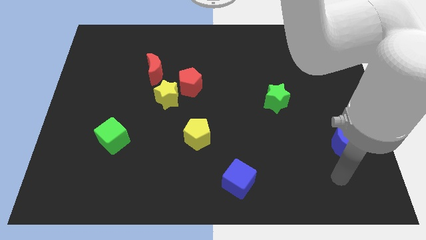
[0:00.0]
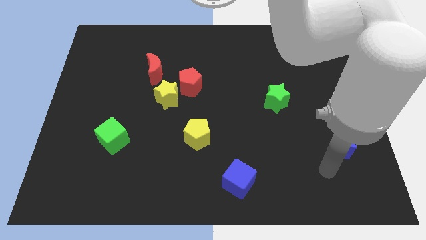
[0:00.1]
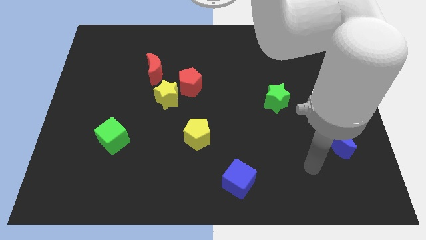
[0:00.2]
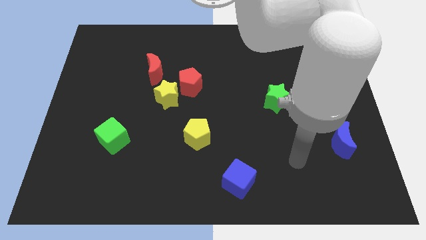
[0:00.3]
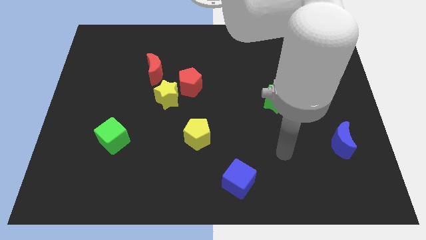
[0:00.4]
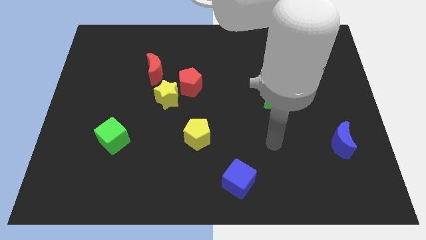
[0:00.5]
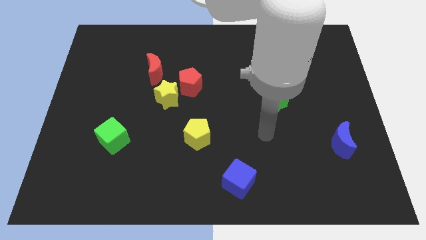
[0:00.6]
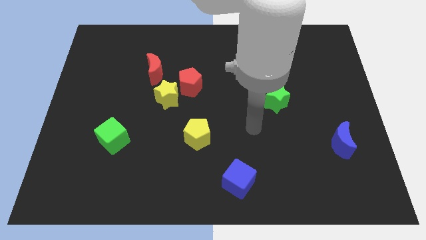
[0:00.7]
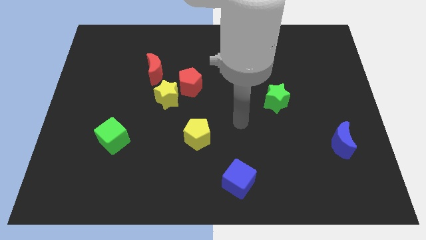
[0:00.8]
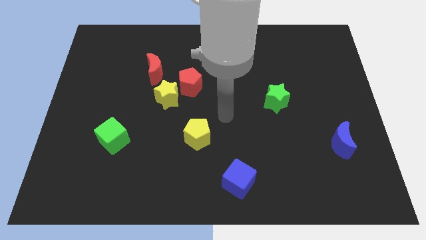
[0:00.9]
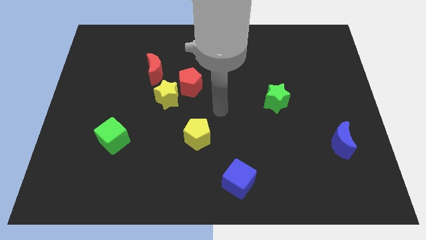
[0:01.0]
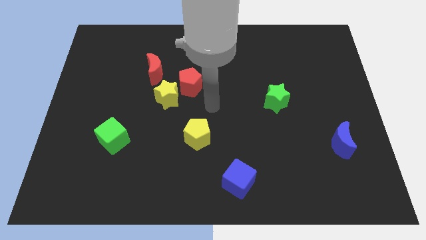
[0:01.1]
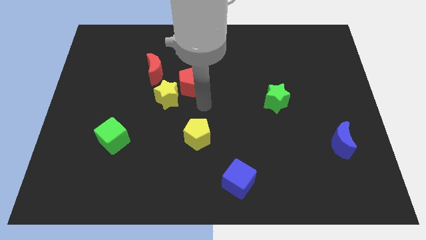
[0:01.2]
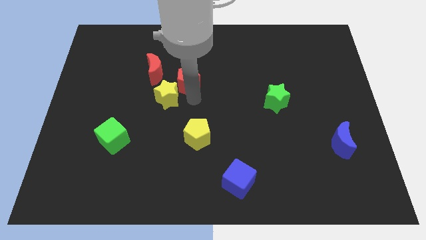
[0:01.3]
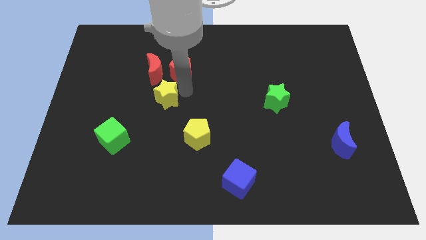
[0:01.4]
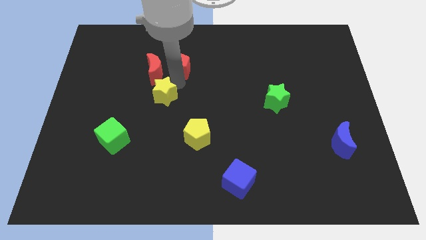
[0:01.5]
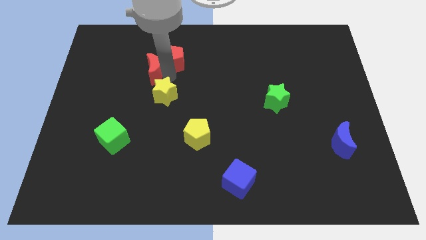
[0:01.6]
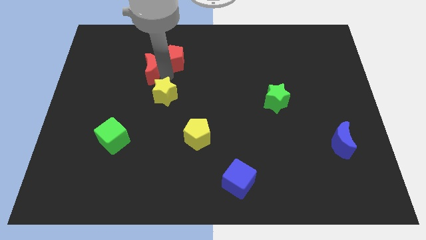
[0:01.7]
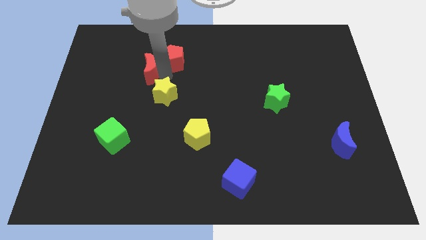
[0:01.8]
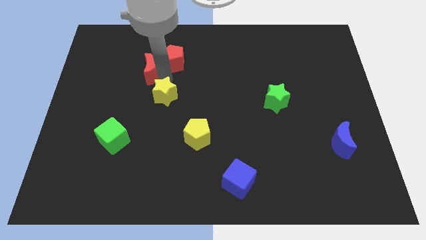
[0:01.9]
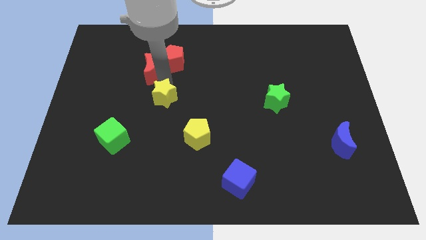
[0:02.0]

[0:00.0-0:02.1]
pull the yellow star apart from the red pentagon and red moon

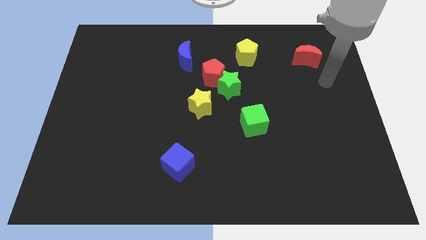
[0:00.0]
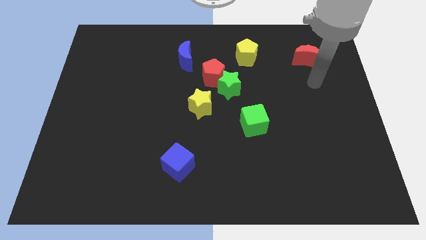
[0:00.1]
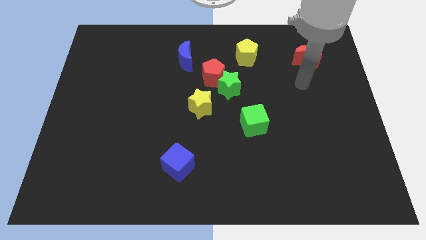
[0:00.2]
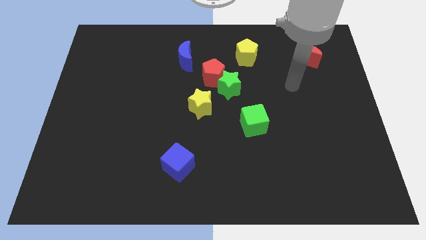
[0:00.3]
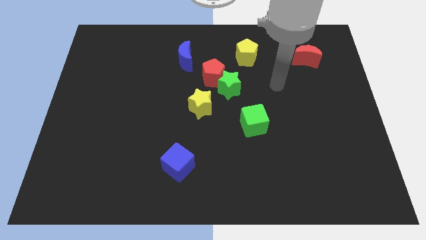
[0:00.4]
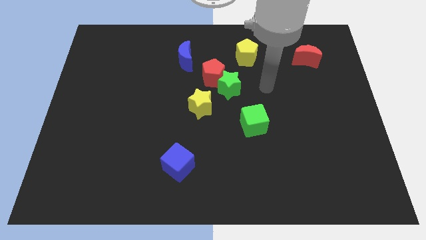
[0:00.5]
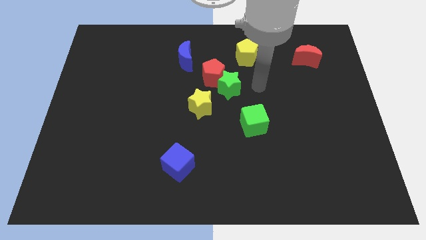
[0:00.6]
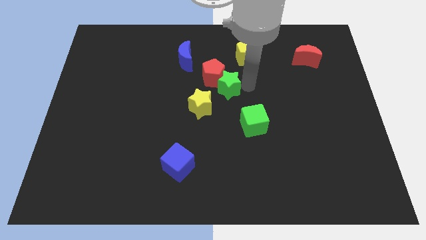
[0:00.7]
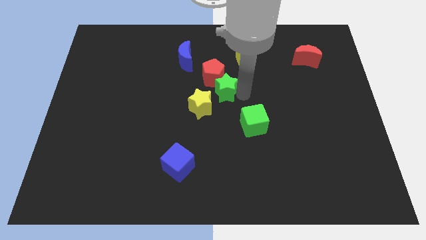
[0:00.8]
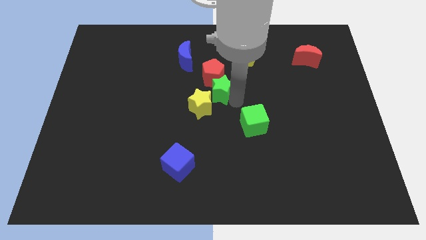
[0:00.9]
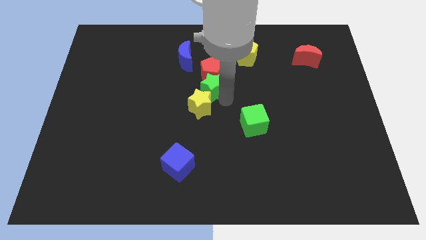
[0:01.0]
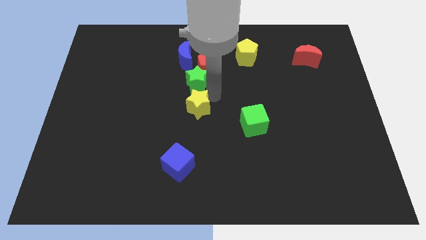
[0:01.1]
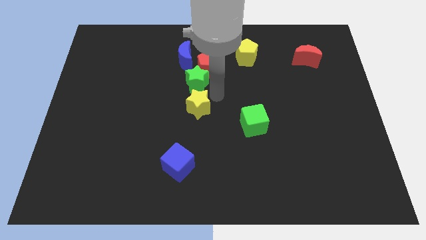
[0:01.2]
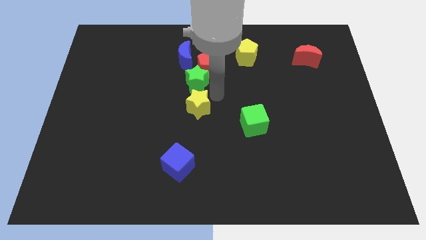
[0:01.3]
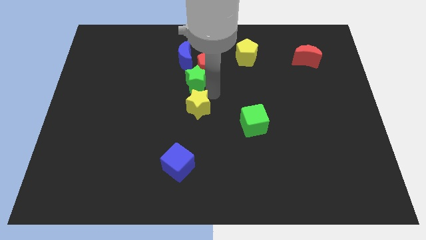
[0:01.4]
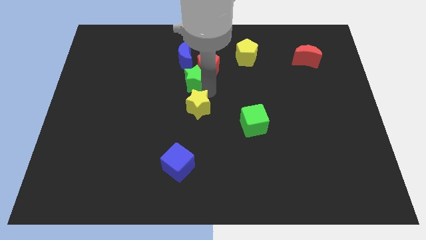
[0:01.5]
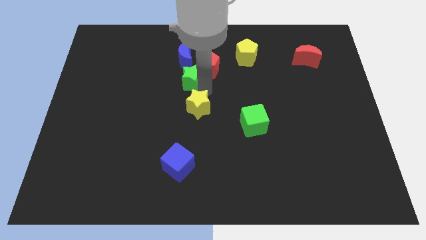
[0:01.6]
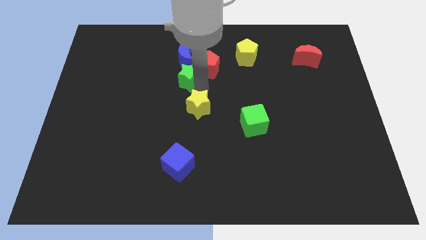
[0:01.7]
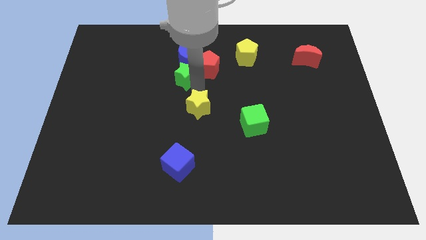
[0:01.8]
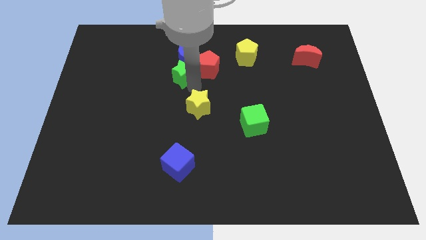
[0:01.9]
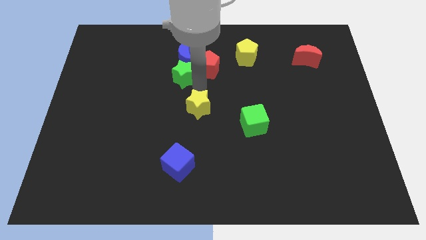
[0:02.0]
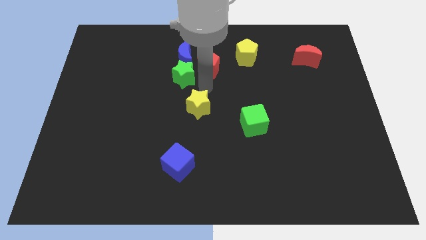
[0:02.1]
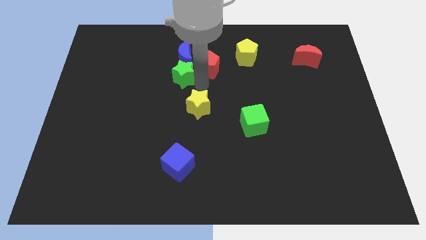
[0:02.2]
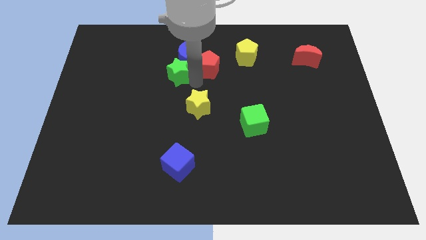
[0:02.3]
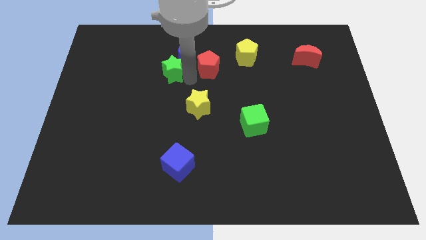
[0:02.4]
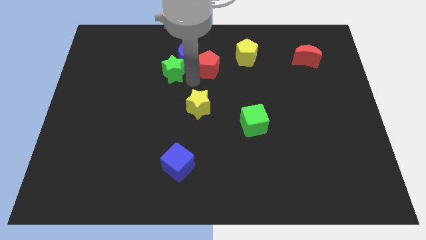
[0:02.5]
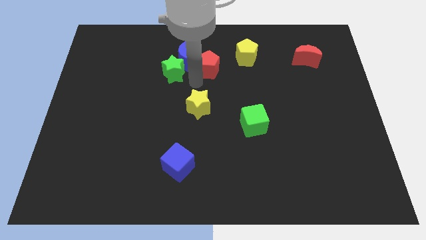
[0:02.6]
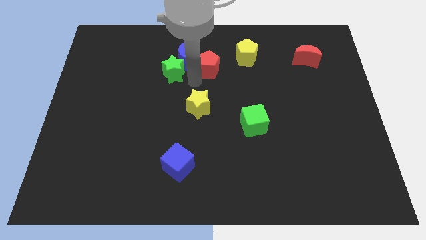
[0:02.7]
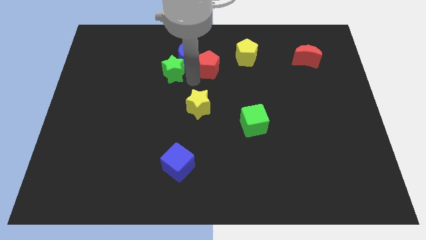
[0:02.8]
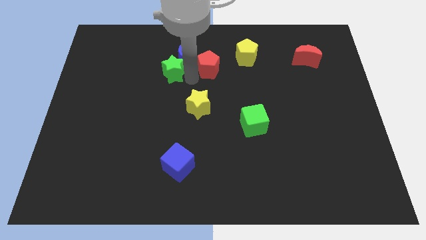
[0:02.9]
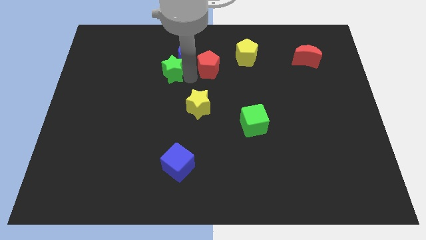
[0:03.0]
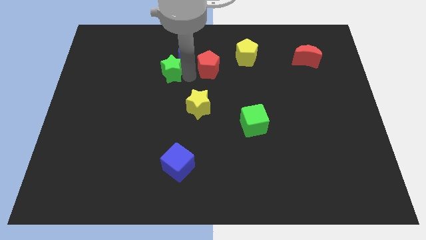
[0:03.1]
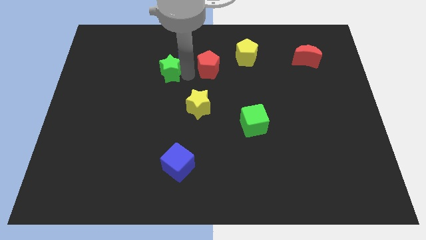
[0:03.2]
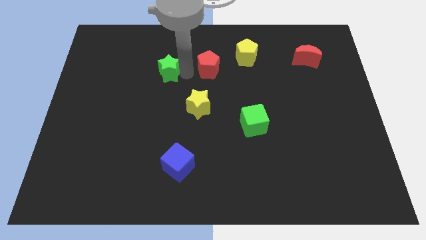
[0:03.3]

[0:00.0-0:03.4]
move the green star away from the red pentagon and yellow star

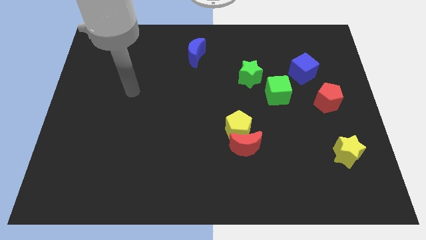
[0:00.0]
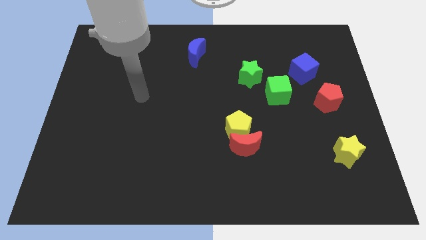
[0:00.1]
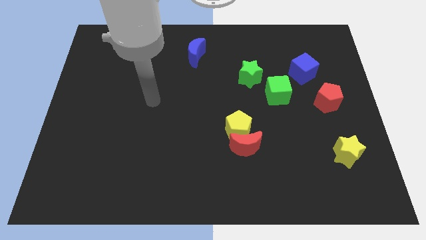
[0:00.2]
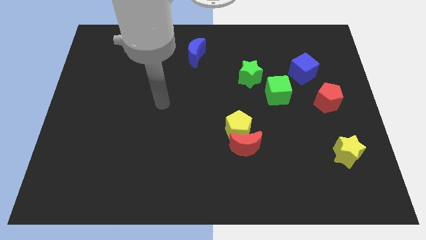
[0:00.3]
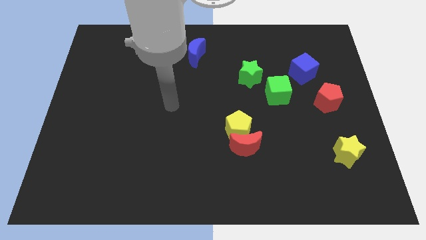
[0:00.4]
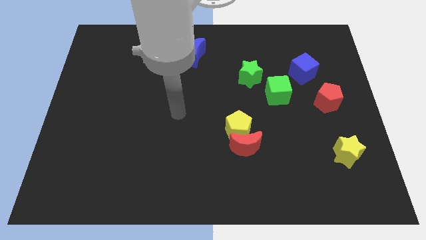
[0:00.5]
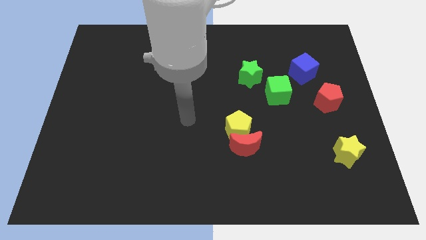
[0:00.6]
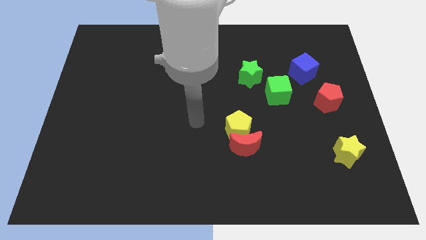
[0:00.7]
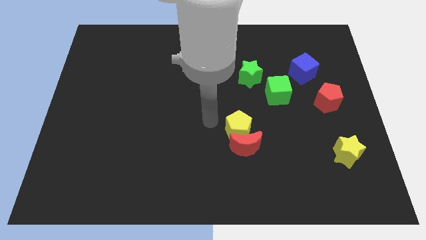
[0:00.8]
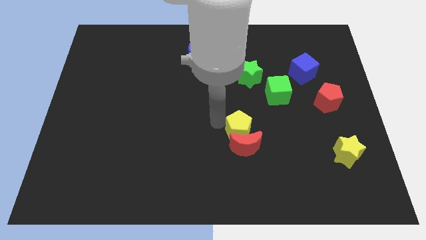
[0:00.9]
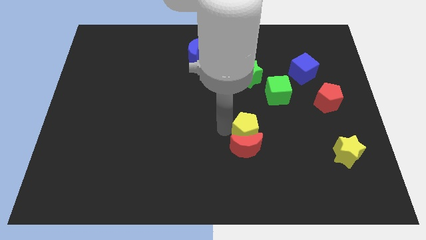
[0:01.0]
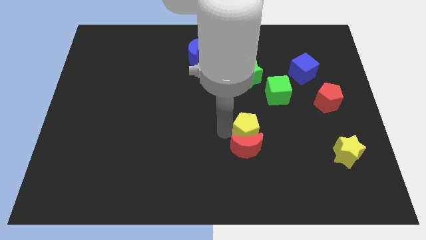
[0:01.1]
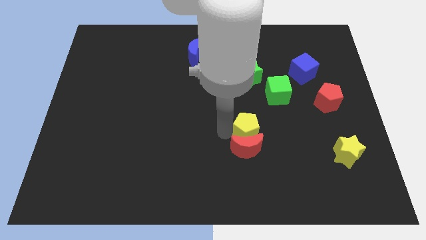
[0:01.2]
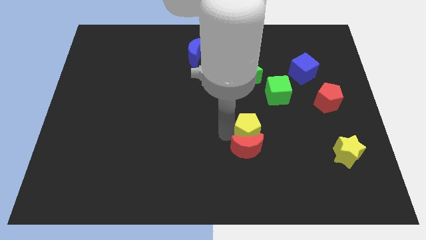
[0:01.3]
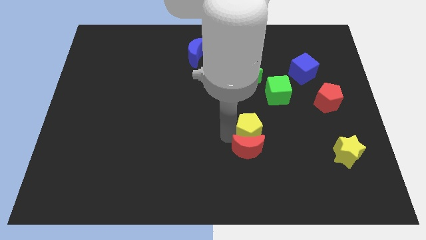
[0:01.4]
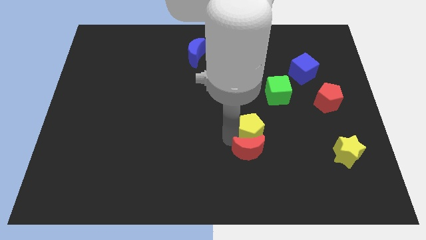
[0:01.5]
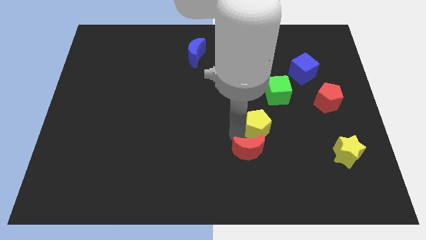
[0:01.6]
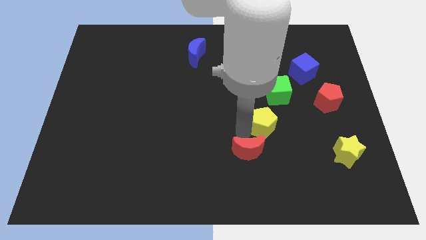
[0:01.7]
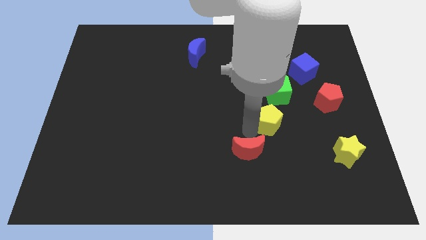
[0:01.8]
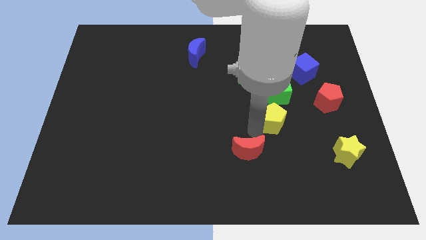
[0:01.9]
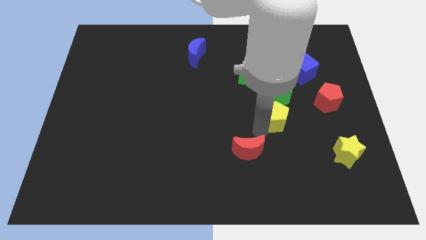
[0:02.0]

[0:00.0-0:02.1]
pull the red moon apart from the yellow pentagon

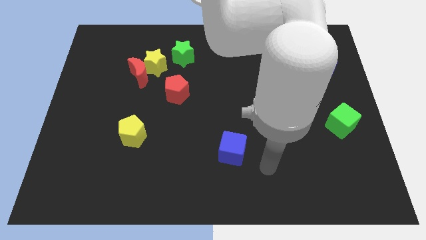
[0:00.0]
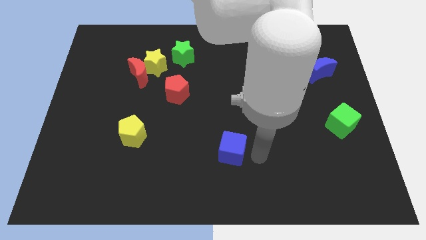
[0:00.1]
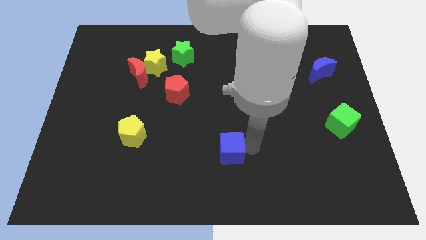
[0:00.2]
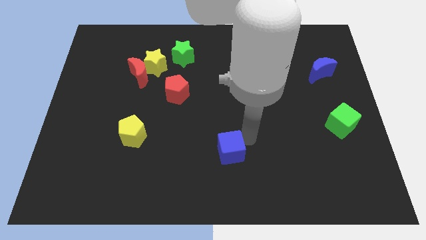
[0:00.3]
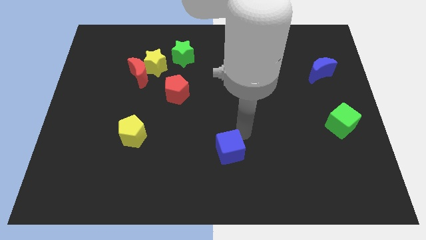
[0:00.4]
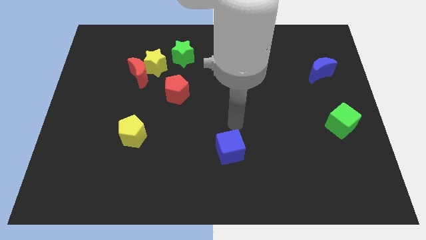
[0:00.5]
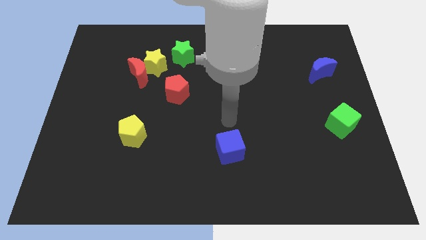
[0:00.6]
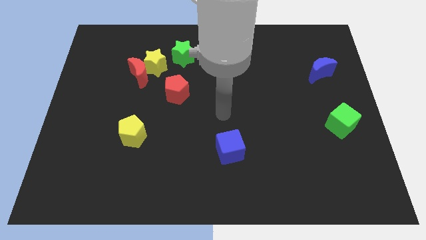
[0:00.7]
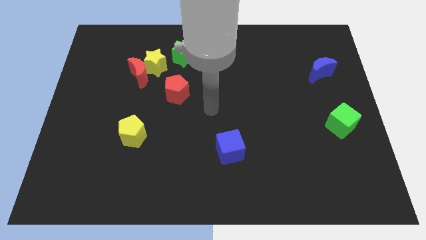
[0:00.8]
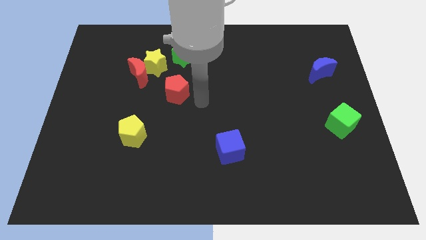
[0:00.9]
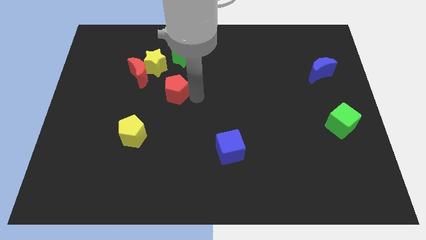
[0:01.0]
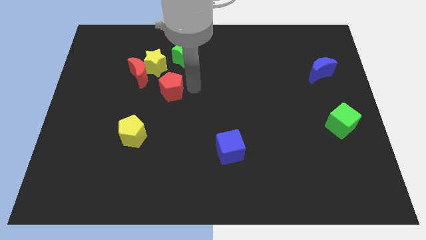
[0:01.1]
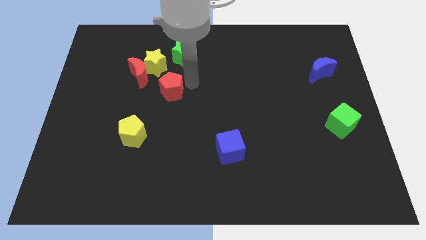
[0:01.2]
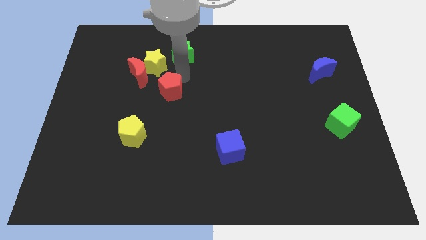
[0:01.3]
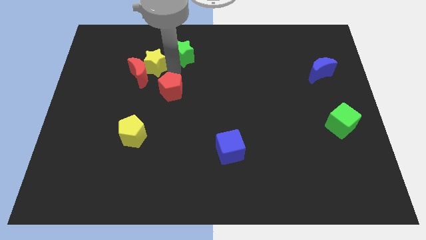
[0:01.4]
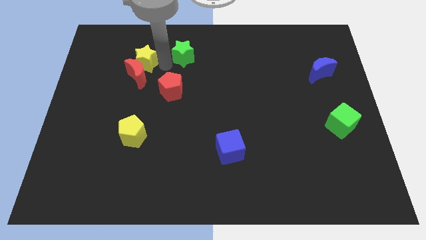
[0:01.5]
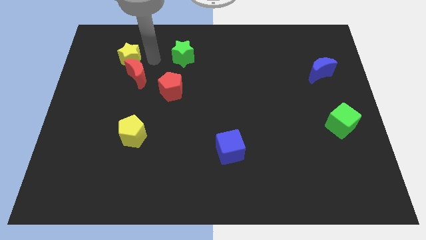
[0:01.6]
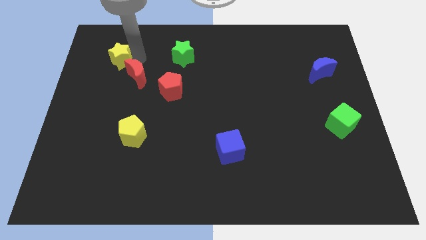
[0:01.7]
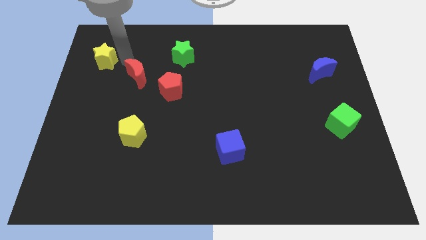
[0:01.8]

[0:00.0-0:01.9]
move the red moon away from the yellow star

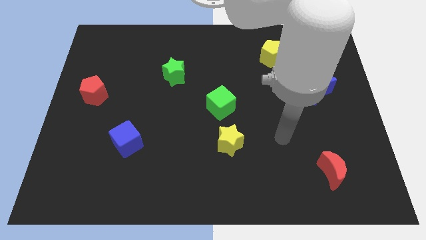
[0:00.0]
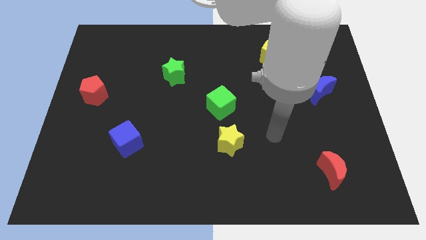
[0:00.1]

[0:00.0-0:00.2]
separate the green cube from the yellow star
